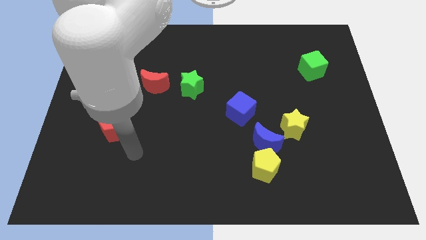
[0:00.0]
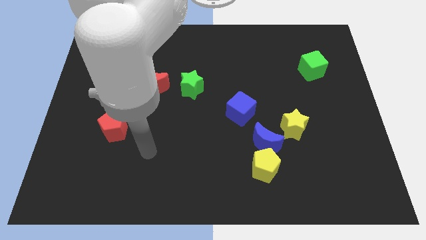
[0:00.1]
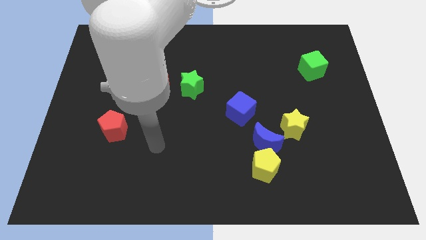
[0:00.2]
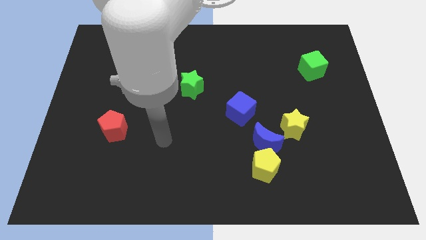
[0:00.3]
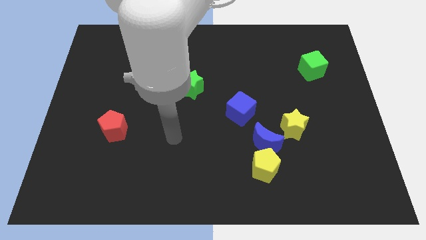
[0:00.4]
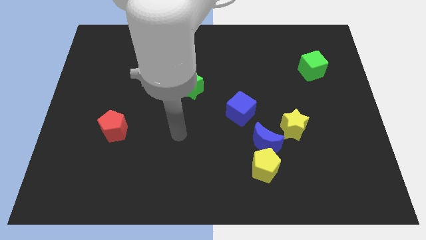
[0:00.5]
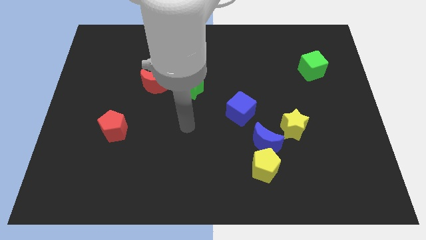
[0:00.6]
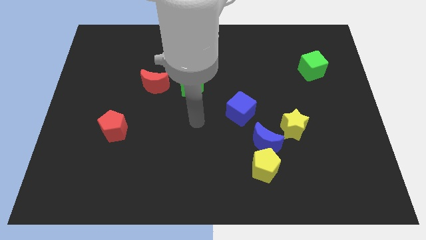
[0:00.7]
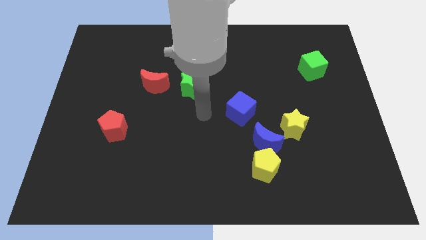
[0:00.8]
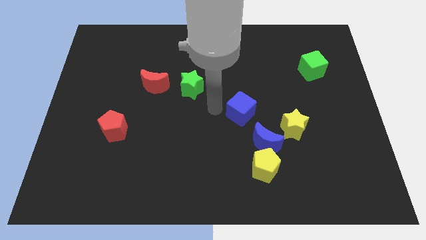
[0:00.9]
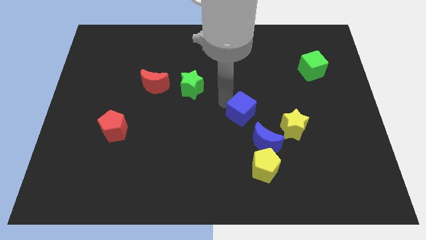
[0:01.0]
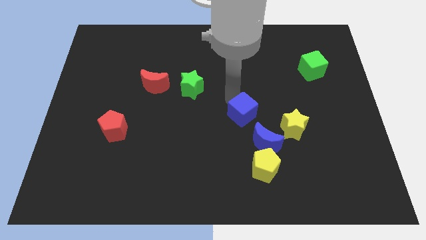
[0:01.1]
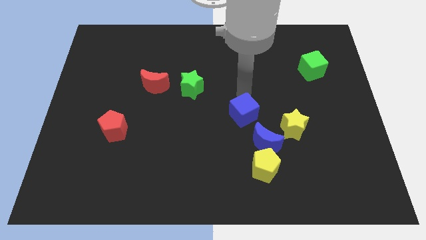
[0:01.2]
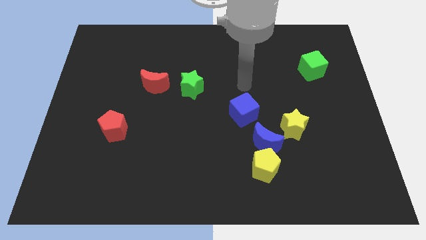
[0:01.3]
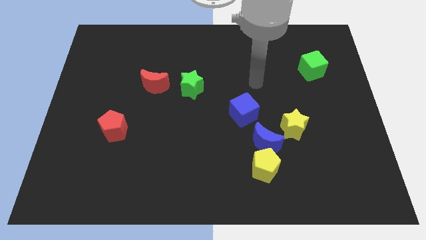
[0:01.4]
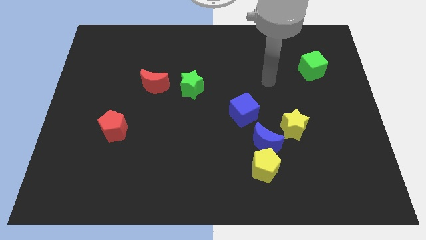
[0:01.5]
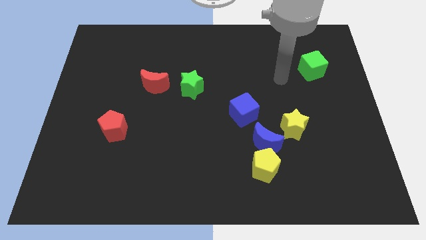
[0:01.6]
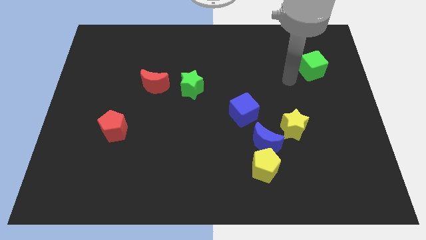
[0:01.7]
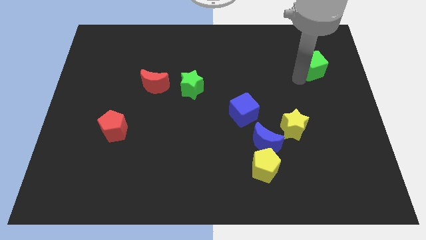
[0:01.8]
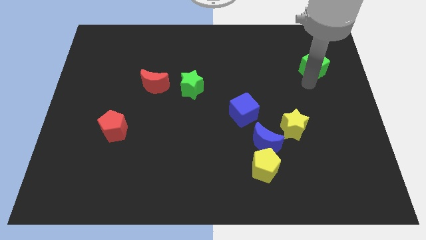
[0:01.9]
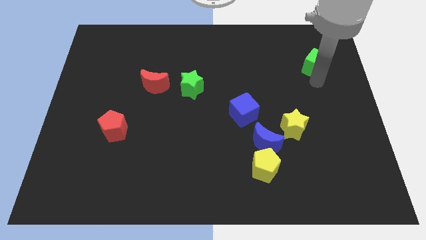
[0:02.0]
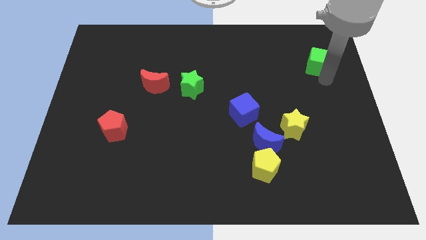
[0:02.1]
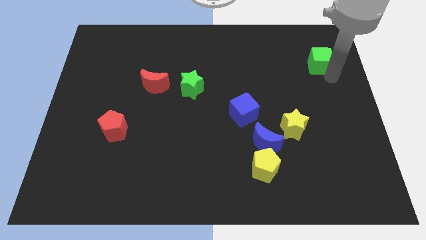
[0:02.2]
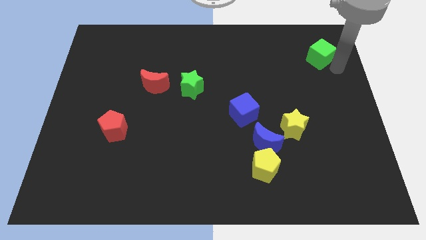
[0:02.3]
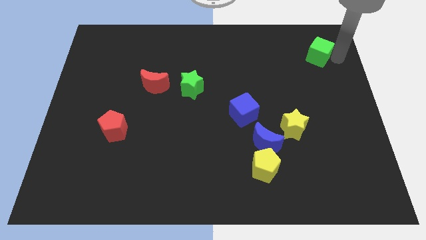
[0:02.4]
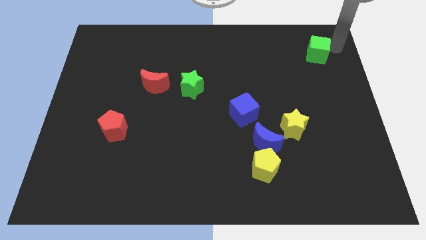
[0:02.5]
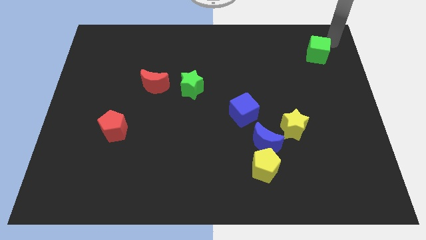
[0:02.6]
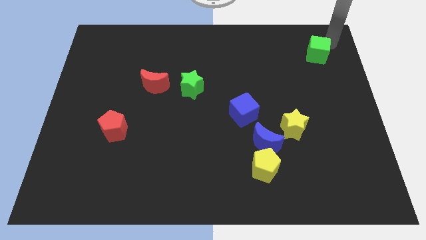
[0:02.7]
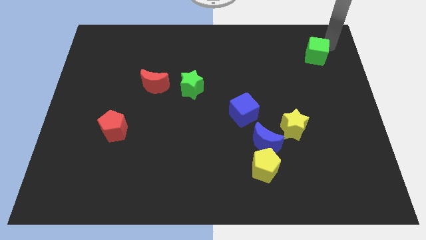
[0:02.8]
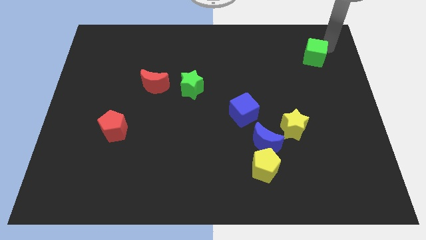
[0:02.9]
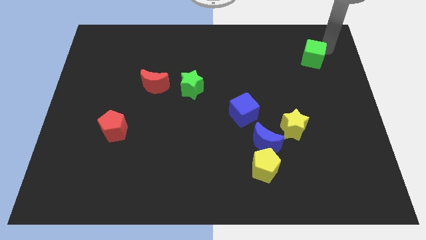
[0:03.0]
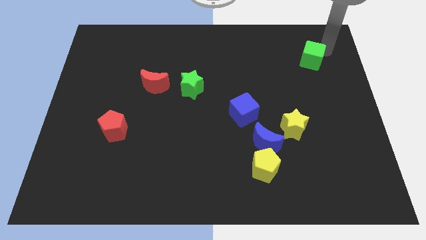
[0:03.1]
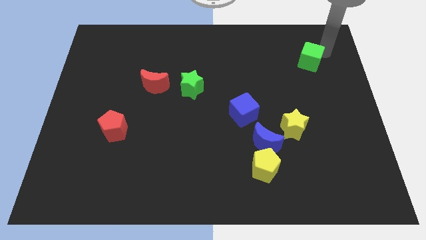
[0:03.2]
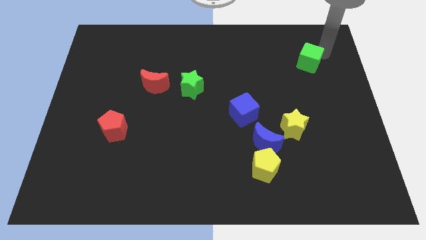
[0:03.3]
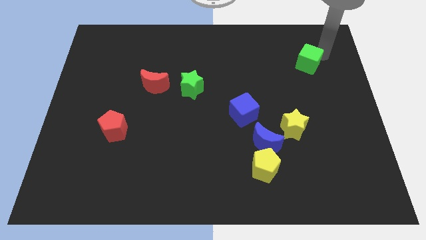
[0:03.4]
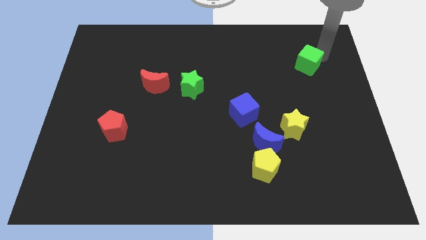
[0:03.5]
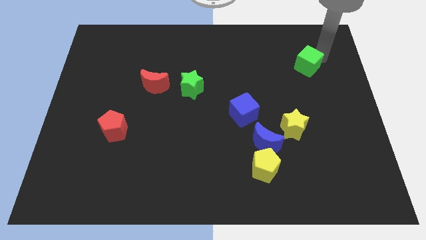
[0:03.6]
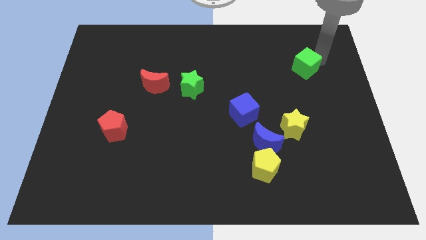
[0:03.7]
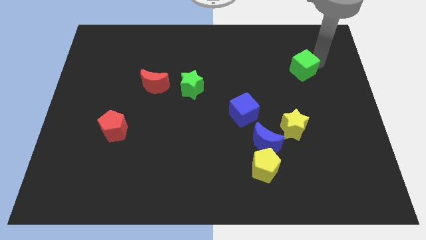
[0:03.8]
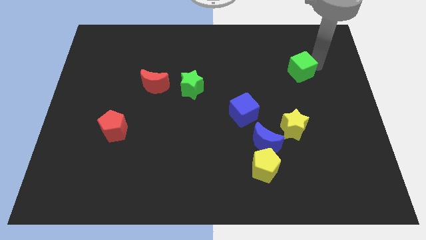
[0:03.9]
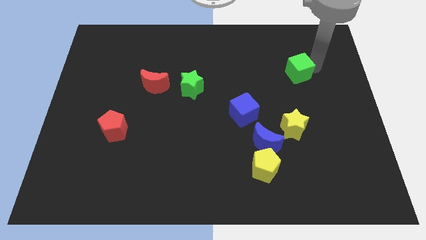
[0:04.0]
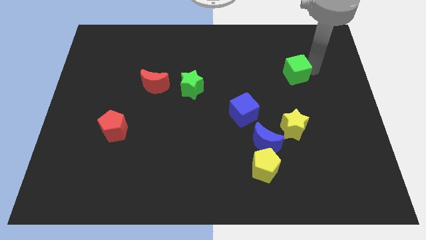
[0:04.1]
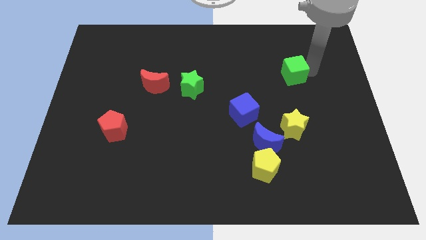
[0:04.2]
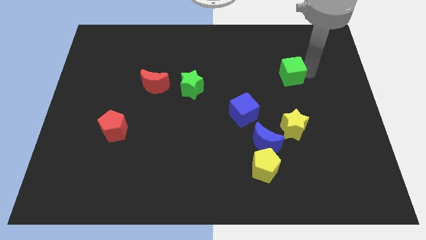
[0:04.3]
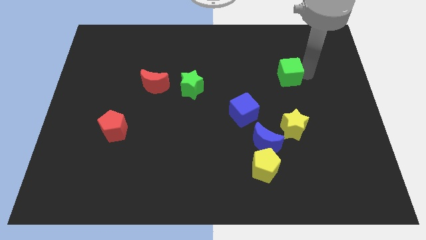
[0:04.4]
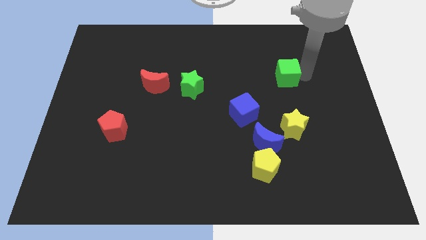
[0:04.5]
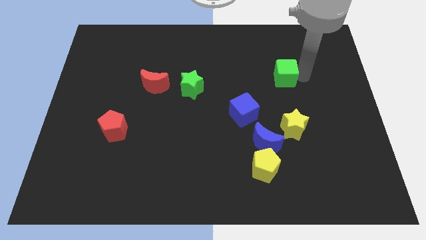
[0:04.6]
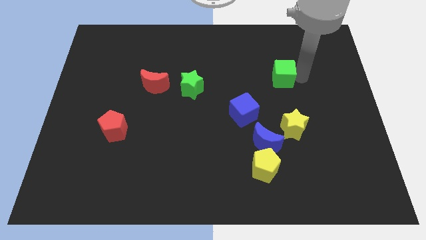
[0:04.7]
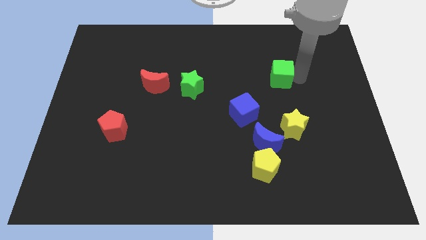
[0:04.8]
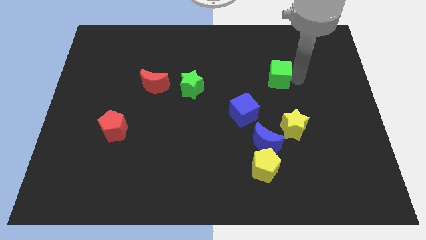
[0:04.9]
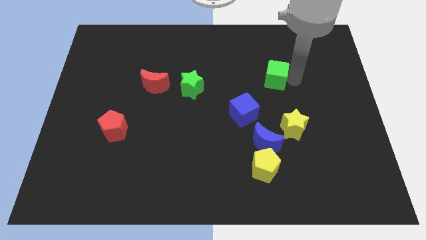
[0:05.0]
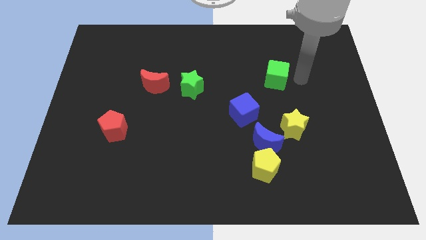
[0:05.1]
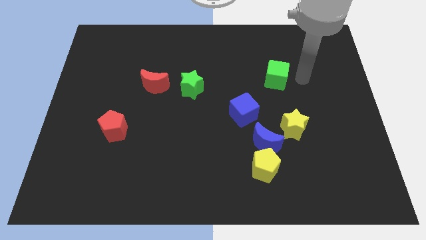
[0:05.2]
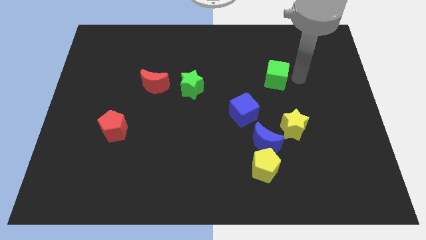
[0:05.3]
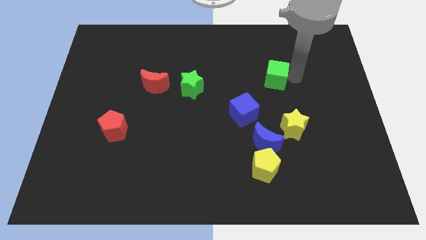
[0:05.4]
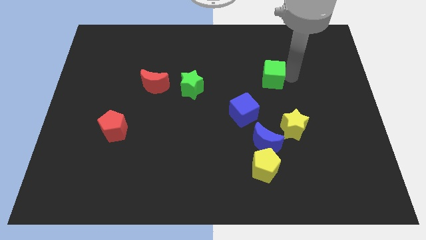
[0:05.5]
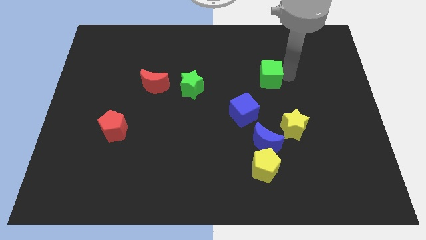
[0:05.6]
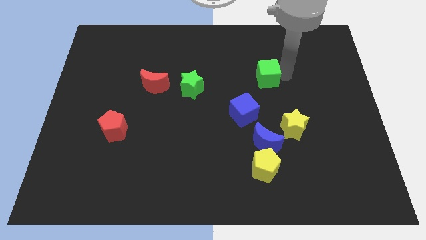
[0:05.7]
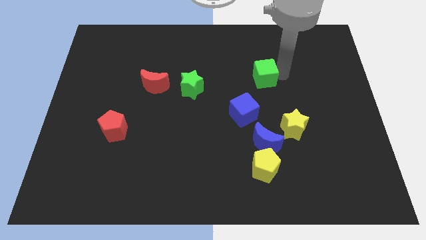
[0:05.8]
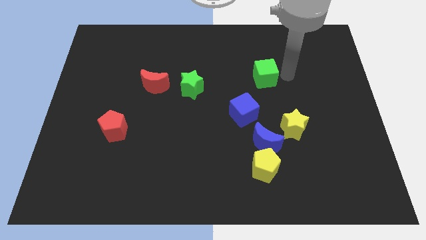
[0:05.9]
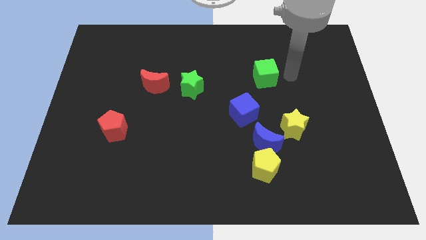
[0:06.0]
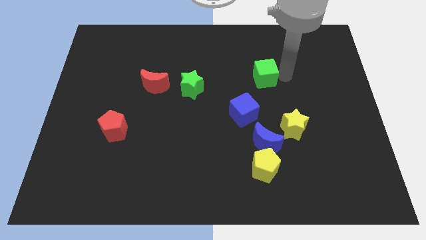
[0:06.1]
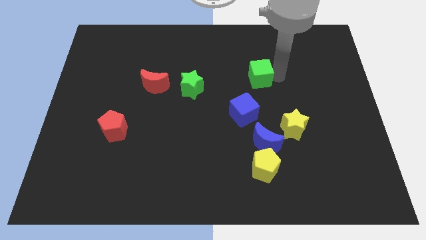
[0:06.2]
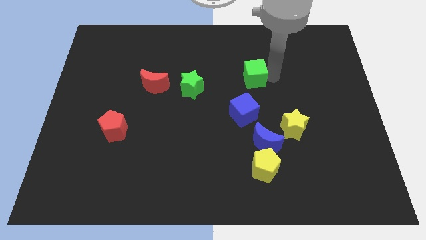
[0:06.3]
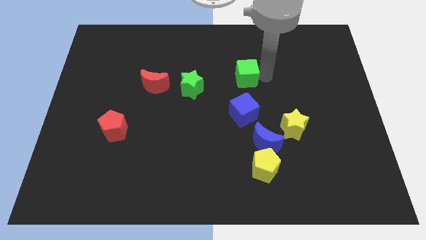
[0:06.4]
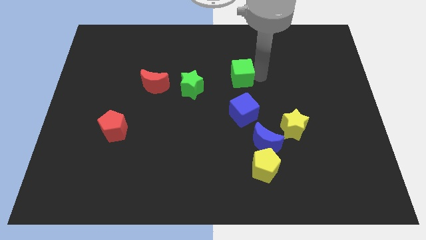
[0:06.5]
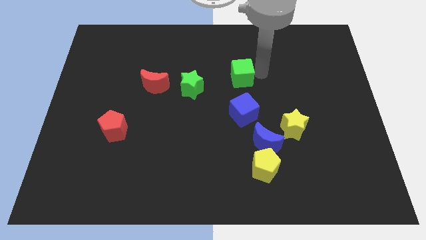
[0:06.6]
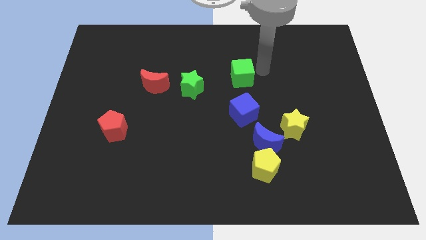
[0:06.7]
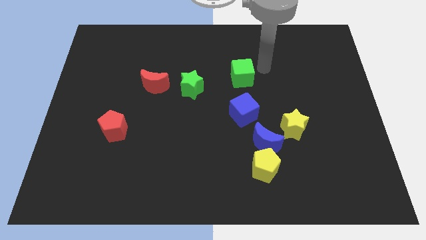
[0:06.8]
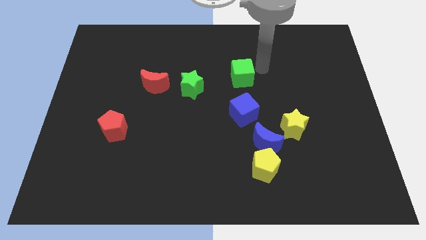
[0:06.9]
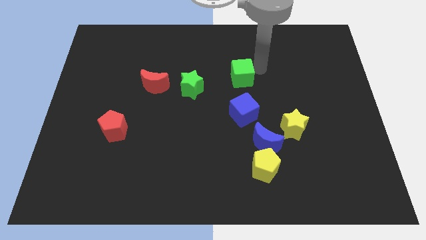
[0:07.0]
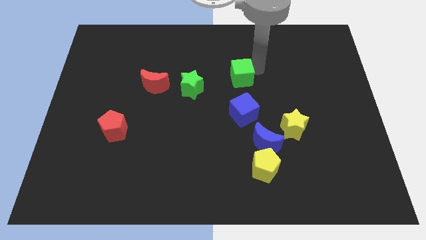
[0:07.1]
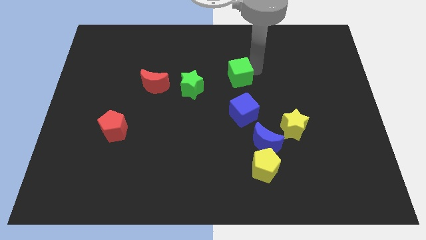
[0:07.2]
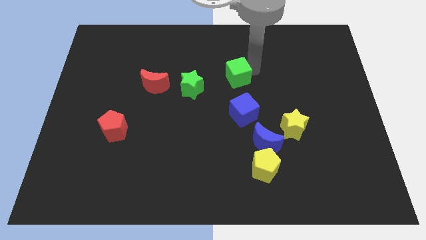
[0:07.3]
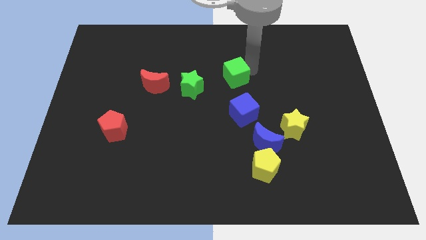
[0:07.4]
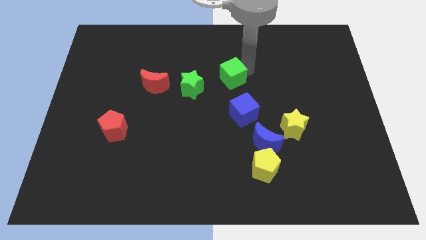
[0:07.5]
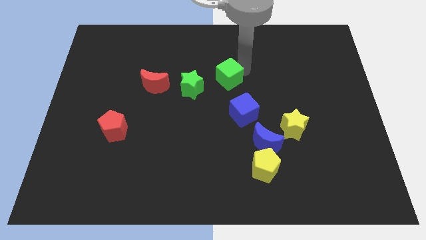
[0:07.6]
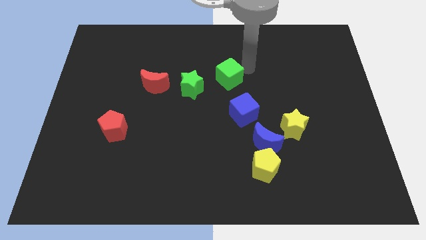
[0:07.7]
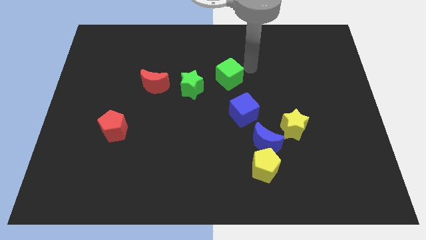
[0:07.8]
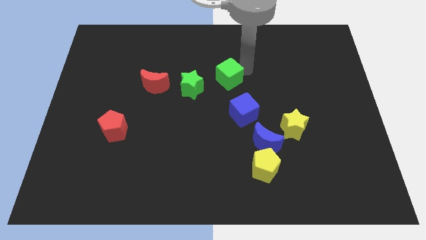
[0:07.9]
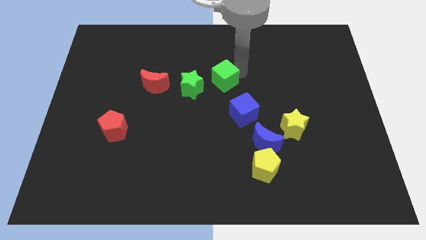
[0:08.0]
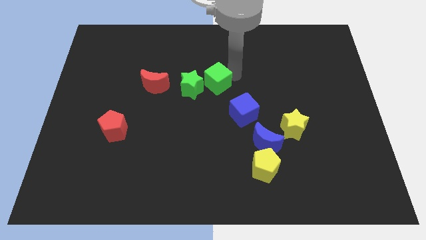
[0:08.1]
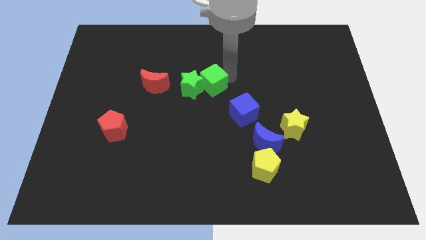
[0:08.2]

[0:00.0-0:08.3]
slide the green cube next to the green star
